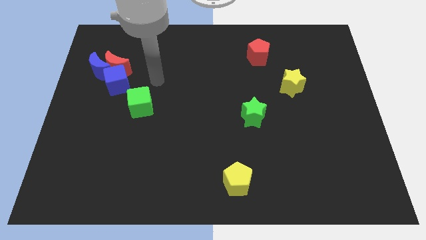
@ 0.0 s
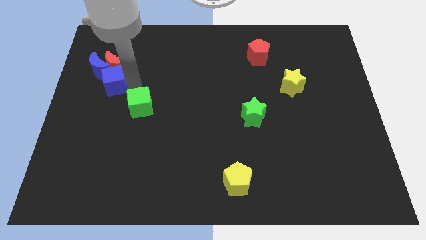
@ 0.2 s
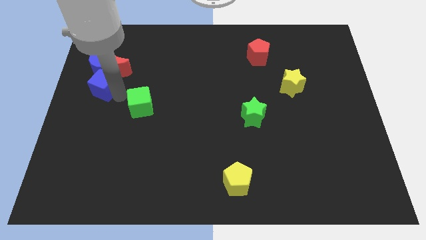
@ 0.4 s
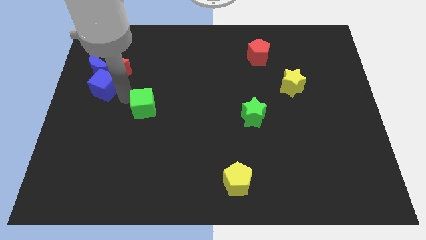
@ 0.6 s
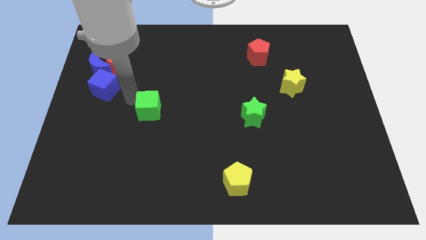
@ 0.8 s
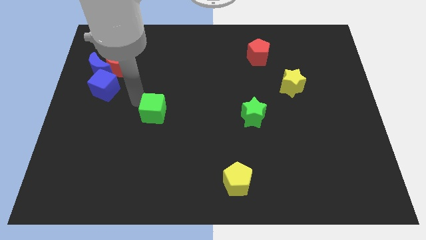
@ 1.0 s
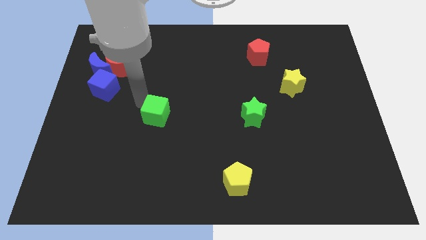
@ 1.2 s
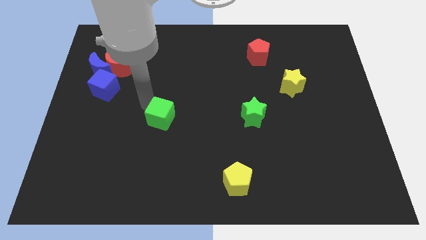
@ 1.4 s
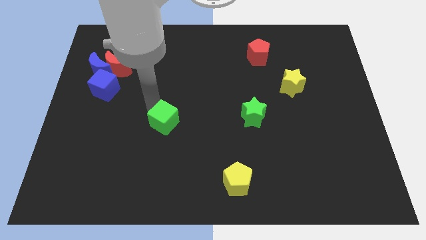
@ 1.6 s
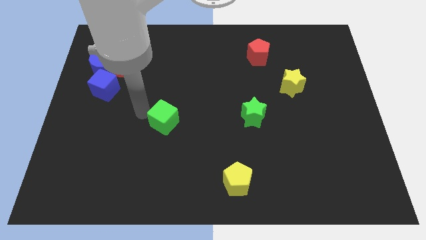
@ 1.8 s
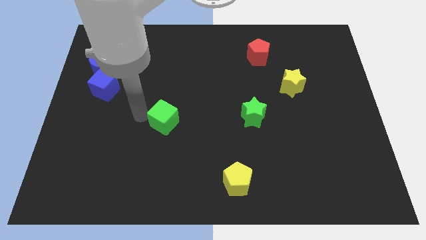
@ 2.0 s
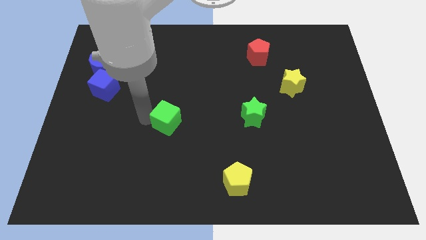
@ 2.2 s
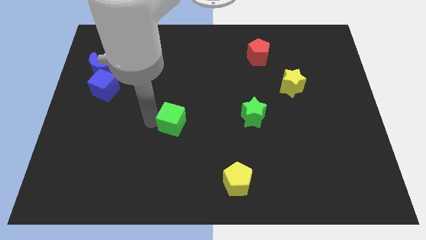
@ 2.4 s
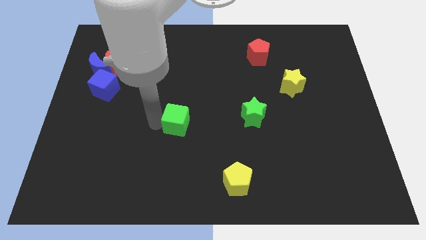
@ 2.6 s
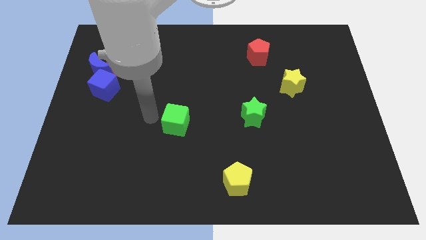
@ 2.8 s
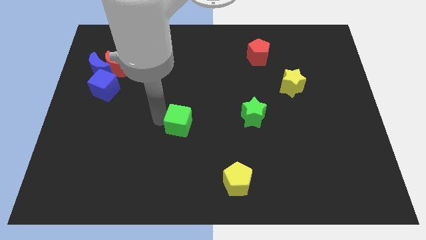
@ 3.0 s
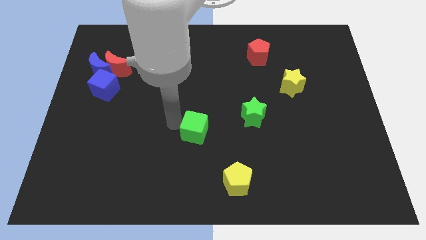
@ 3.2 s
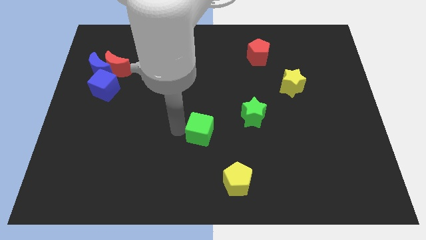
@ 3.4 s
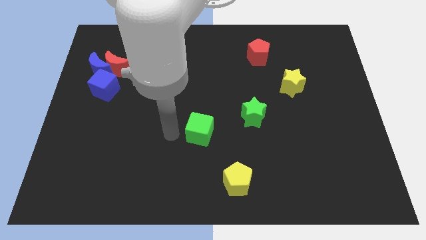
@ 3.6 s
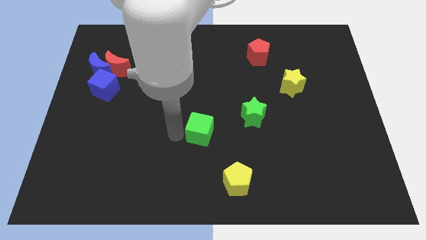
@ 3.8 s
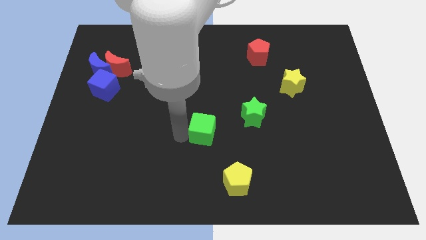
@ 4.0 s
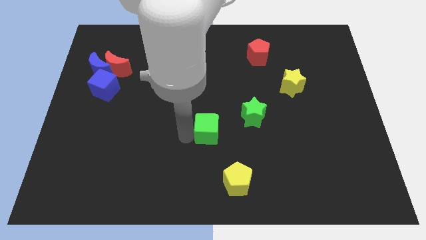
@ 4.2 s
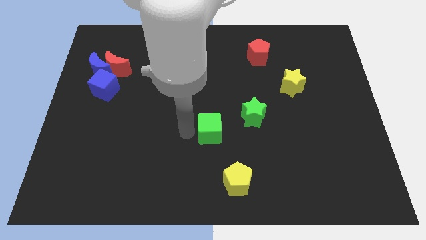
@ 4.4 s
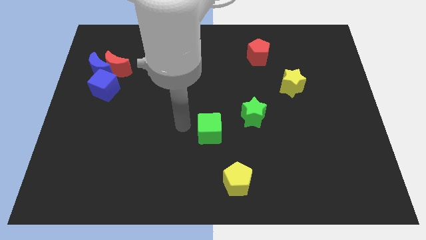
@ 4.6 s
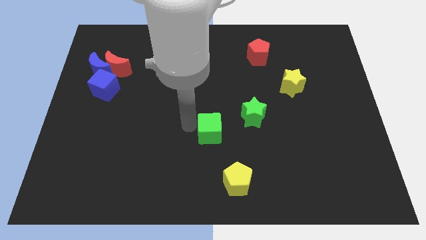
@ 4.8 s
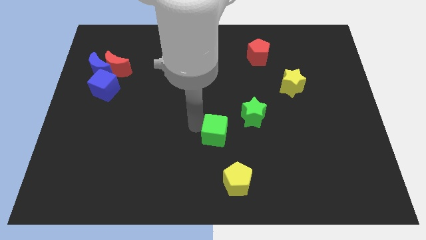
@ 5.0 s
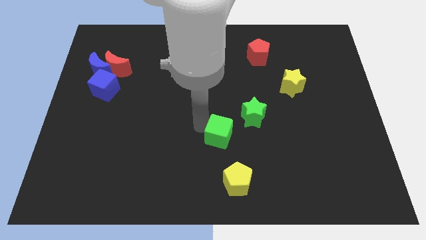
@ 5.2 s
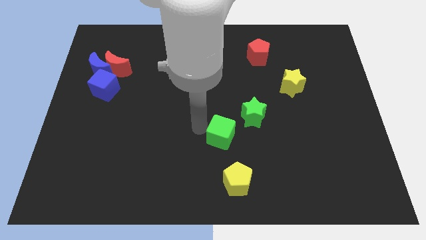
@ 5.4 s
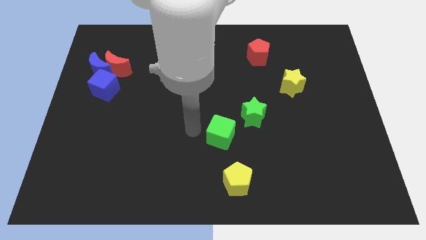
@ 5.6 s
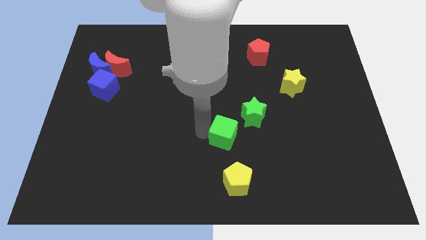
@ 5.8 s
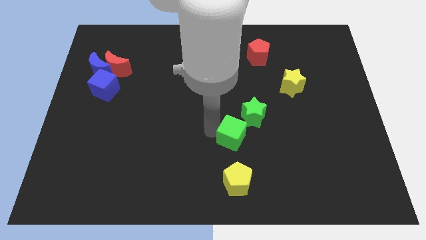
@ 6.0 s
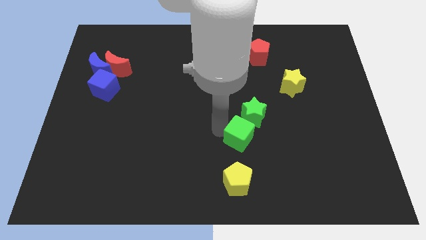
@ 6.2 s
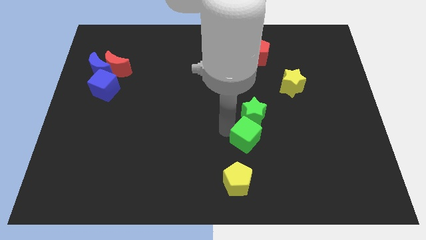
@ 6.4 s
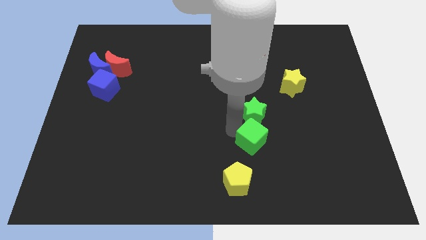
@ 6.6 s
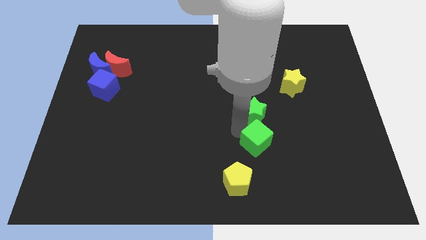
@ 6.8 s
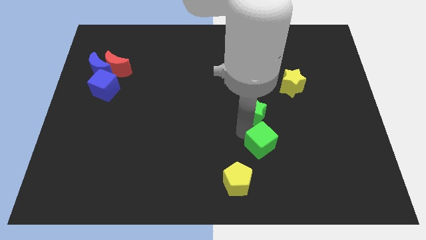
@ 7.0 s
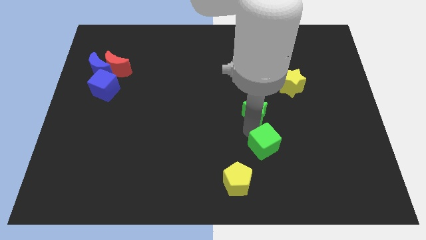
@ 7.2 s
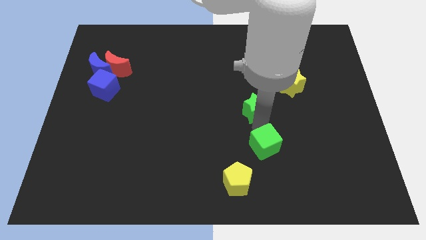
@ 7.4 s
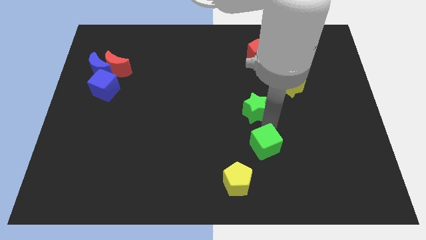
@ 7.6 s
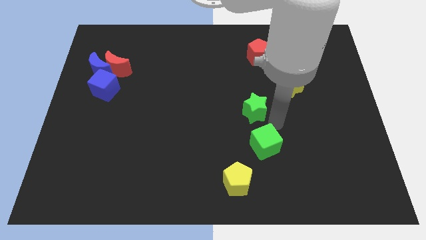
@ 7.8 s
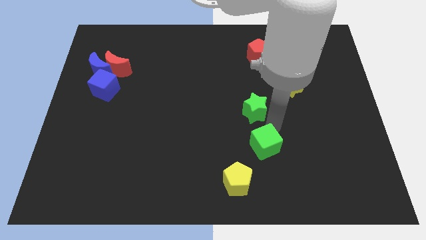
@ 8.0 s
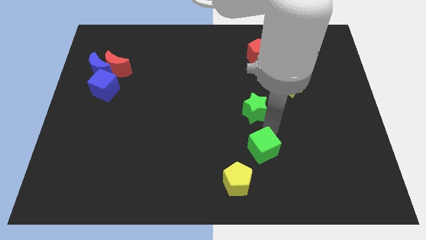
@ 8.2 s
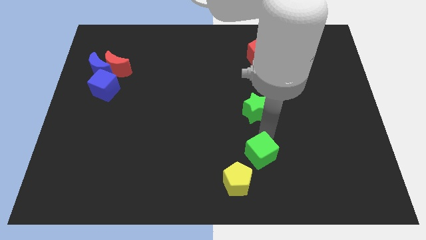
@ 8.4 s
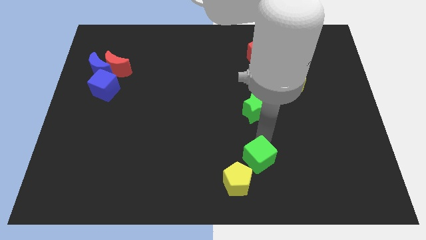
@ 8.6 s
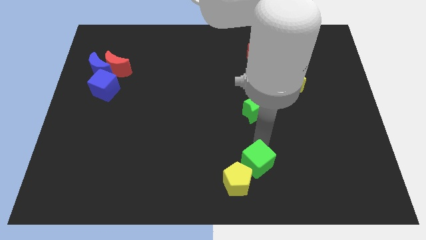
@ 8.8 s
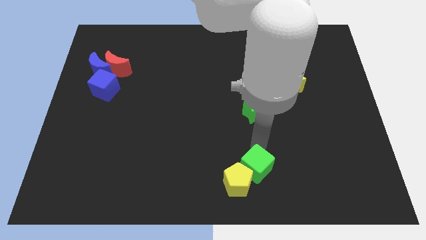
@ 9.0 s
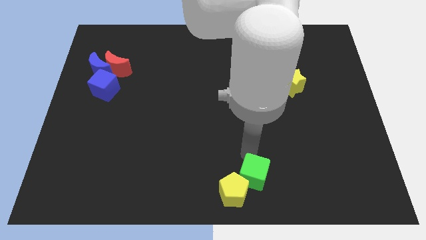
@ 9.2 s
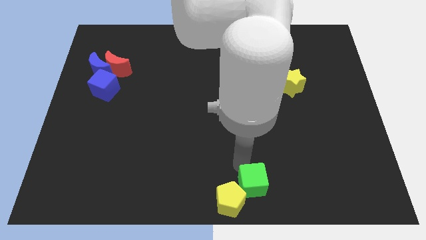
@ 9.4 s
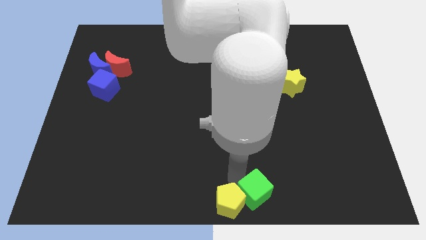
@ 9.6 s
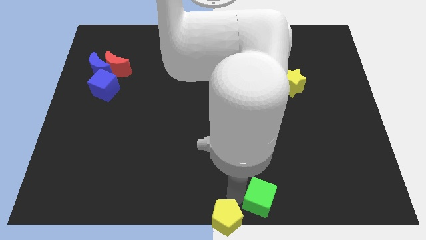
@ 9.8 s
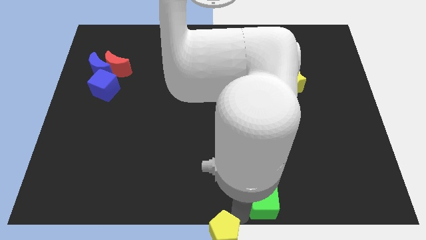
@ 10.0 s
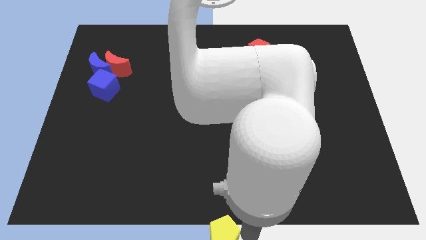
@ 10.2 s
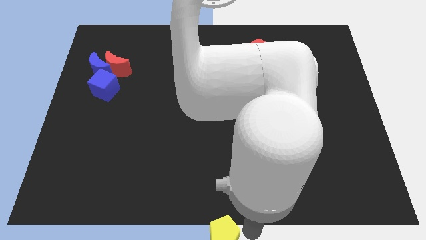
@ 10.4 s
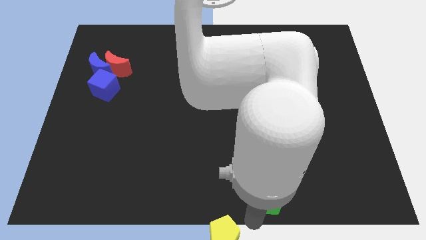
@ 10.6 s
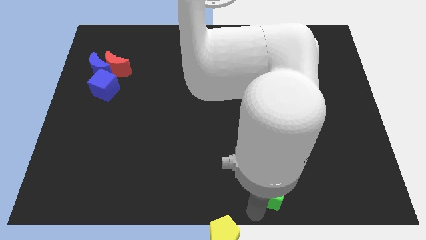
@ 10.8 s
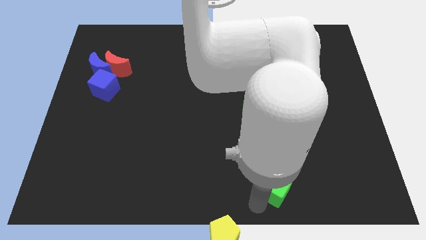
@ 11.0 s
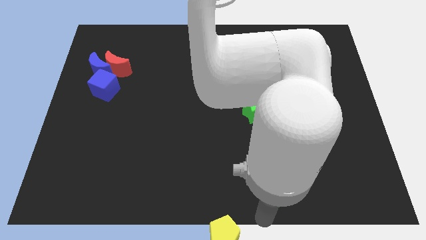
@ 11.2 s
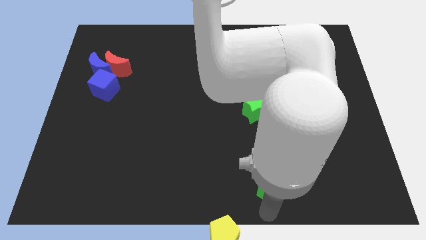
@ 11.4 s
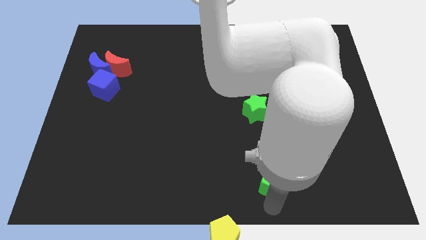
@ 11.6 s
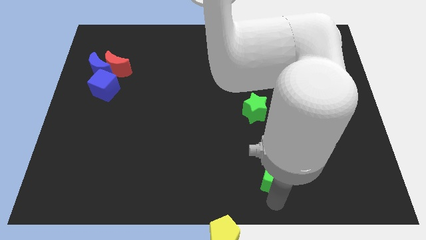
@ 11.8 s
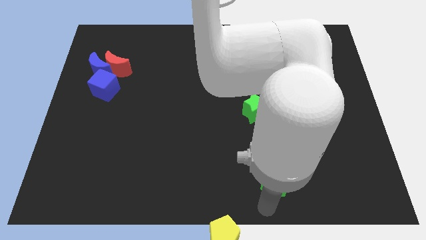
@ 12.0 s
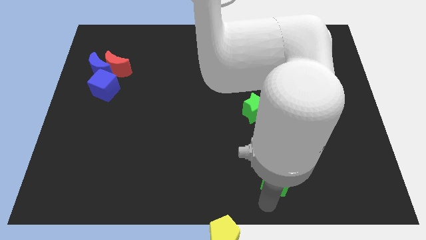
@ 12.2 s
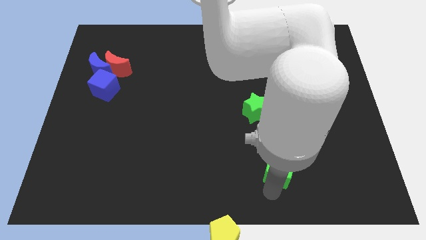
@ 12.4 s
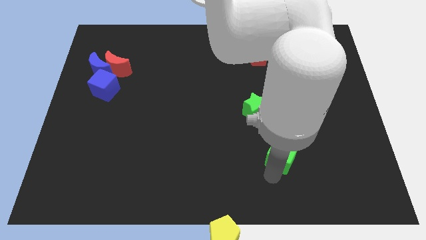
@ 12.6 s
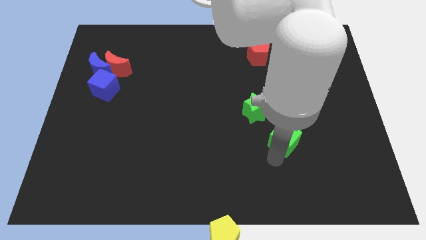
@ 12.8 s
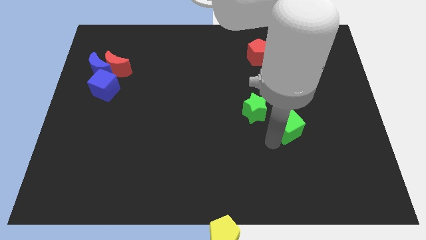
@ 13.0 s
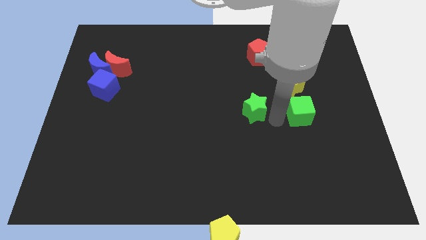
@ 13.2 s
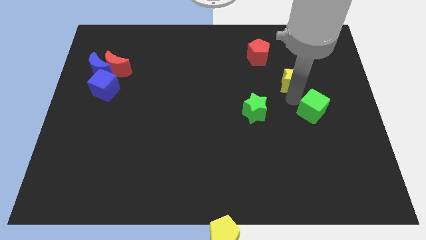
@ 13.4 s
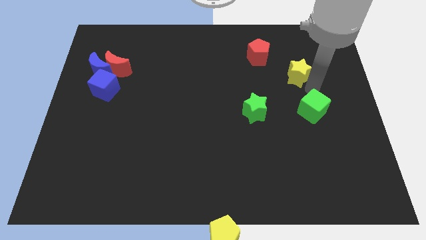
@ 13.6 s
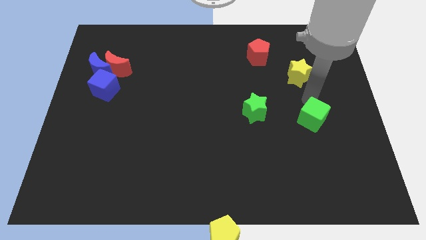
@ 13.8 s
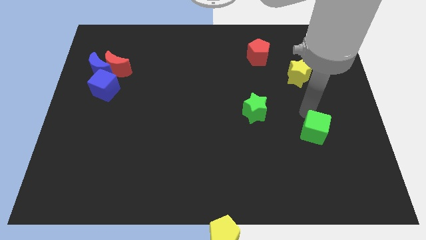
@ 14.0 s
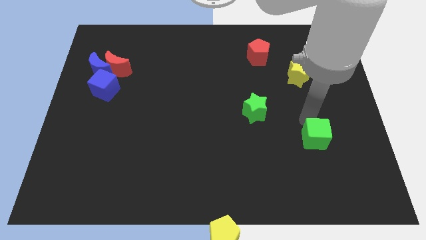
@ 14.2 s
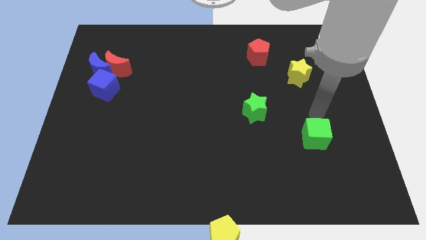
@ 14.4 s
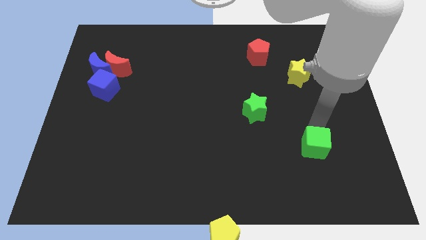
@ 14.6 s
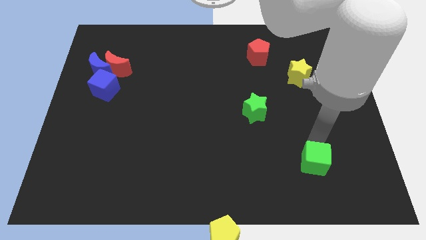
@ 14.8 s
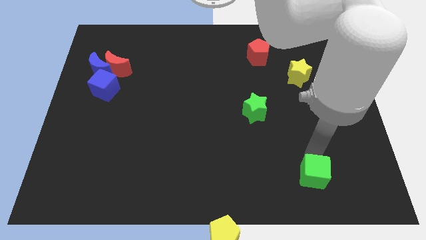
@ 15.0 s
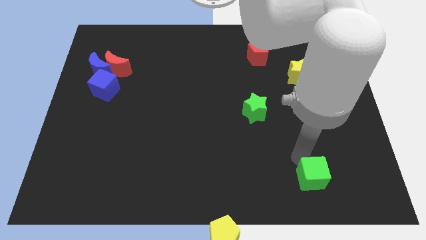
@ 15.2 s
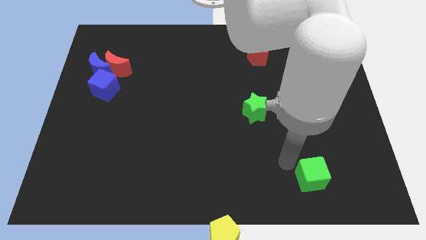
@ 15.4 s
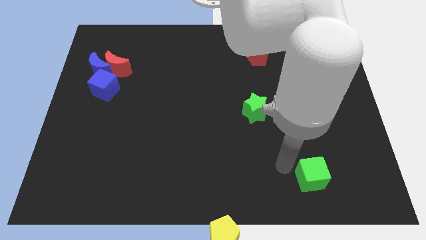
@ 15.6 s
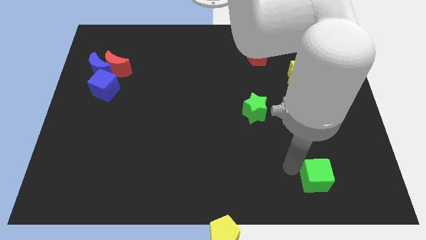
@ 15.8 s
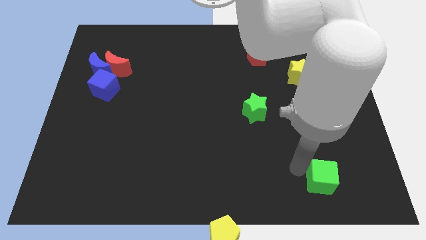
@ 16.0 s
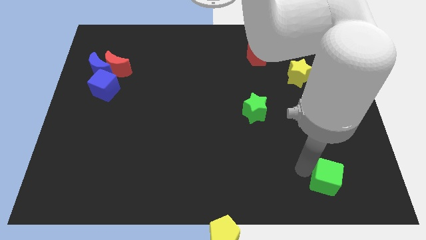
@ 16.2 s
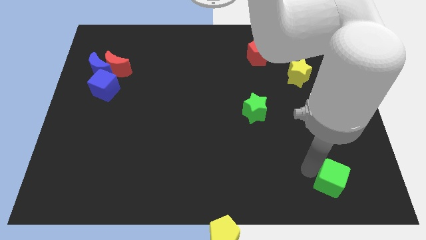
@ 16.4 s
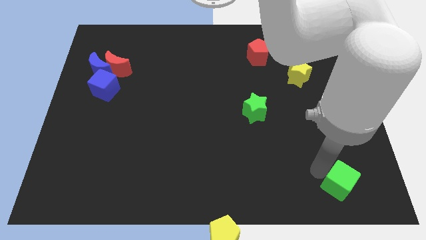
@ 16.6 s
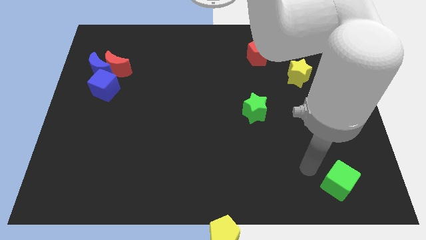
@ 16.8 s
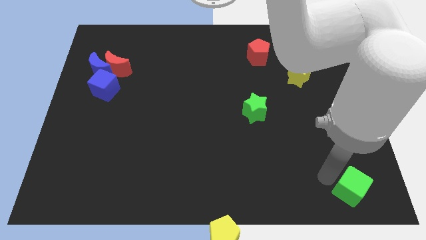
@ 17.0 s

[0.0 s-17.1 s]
slide the green cube to the bottom right
